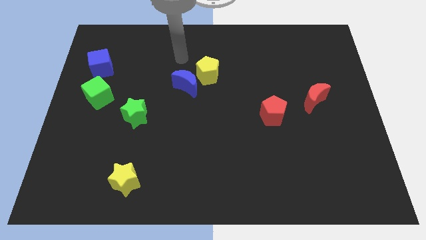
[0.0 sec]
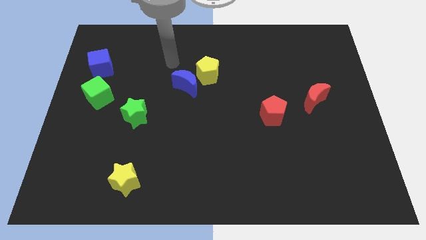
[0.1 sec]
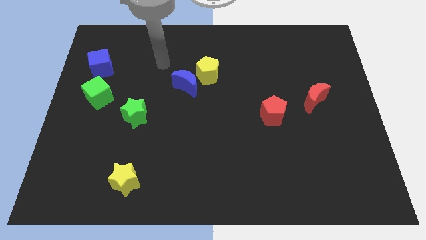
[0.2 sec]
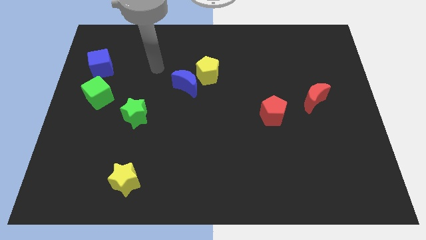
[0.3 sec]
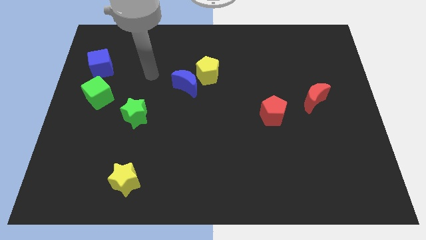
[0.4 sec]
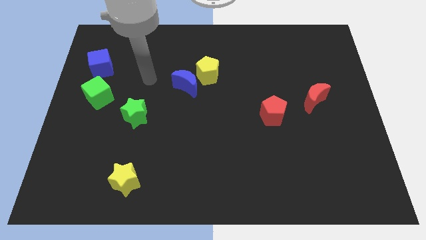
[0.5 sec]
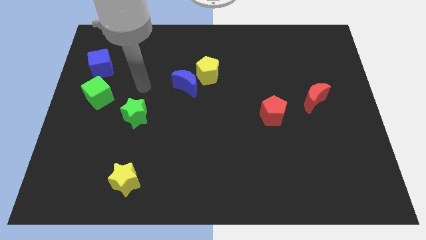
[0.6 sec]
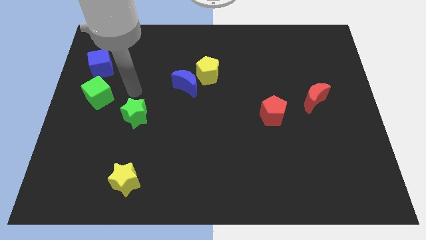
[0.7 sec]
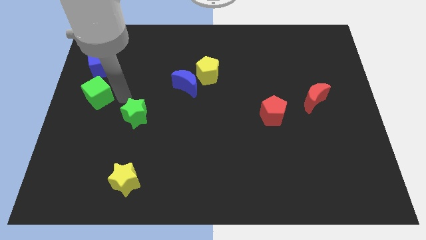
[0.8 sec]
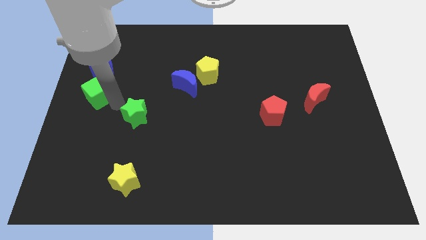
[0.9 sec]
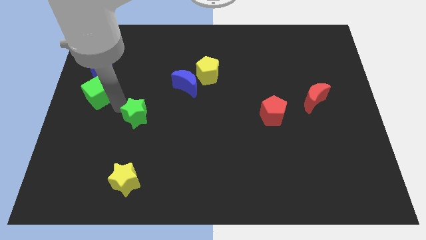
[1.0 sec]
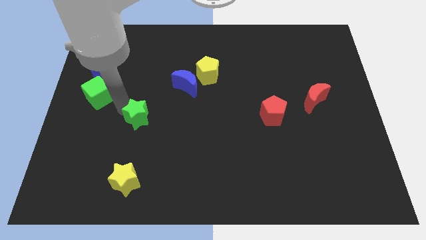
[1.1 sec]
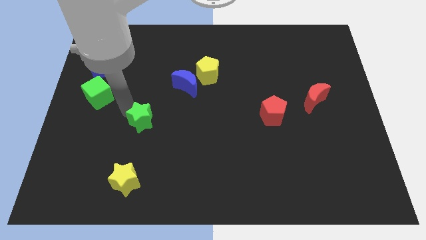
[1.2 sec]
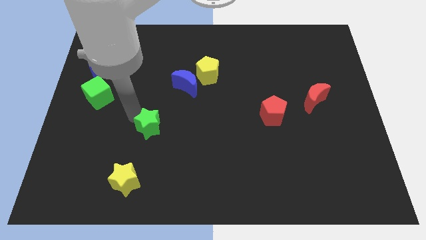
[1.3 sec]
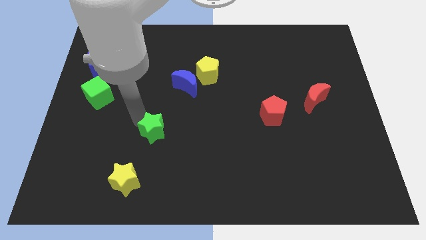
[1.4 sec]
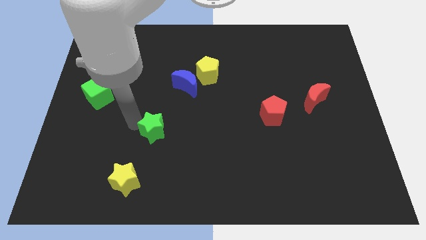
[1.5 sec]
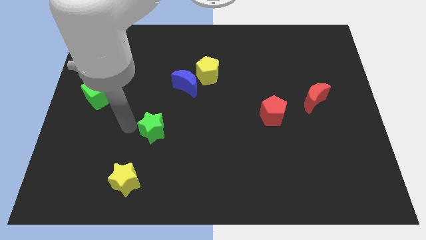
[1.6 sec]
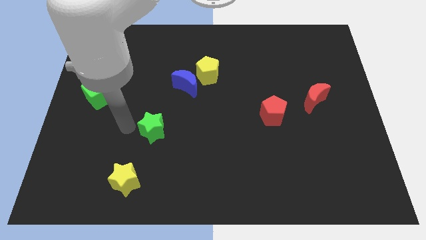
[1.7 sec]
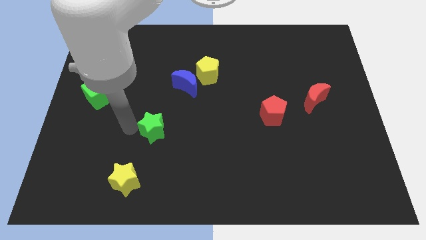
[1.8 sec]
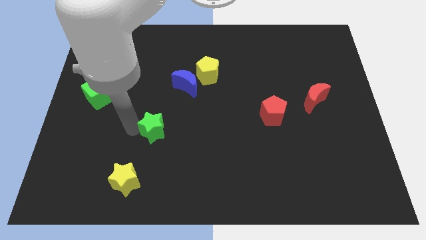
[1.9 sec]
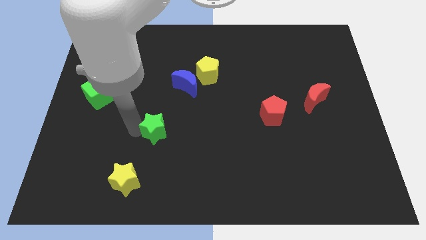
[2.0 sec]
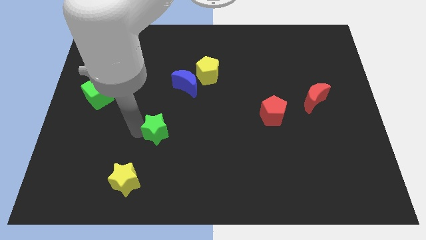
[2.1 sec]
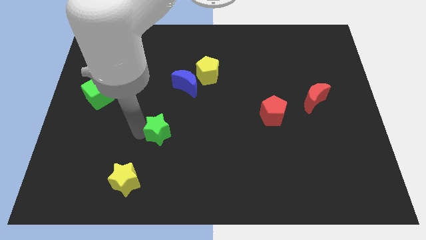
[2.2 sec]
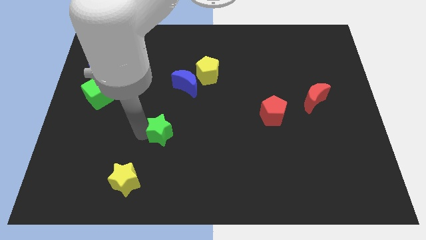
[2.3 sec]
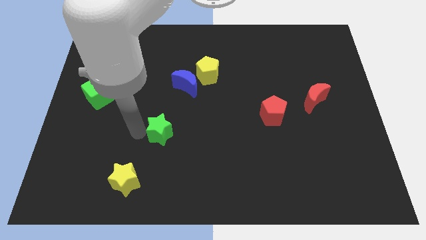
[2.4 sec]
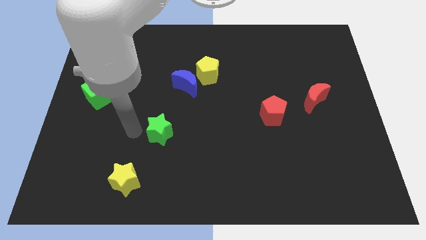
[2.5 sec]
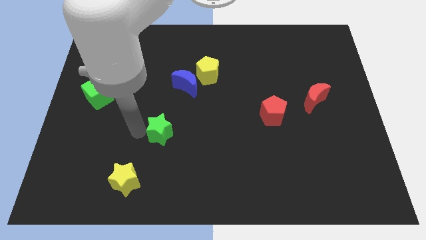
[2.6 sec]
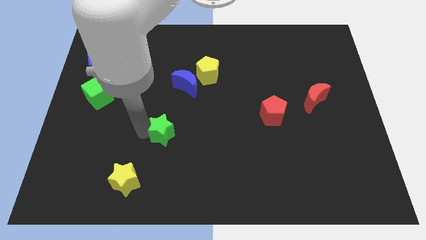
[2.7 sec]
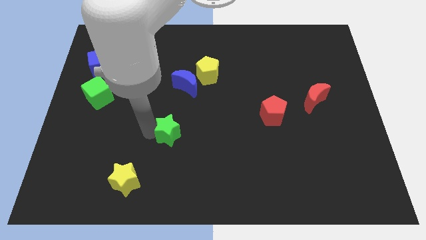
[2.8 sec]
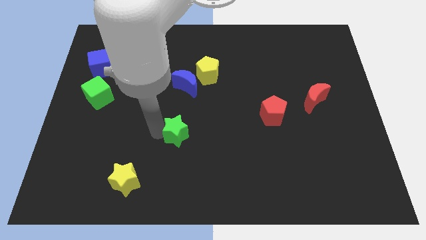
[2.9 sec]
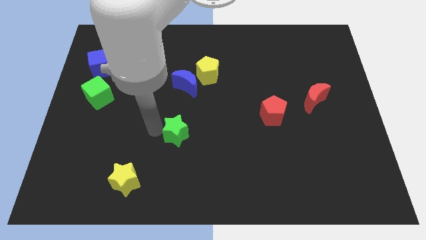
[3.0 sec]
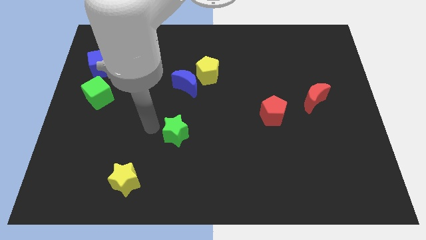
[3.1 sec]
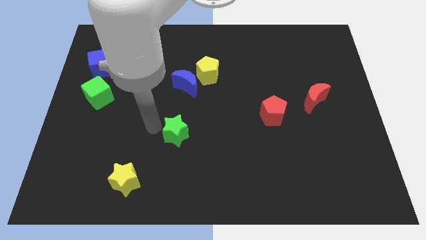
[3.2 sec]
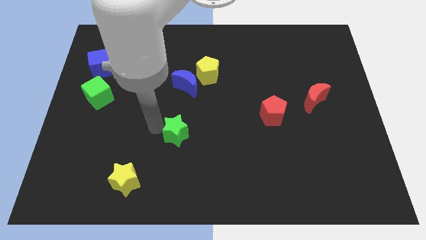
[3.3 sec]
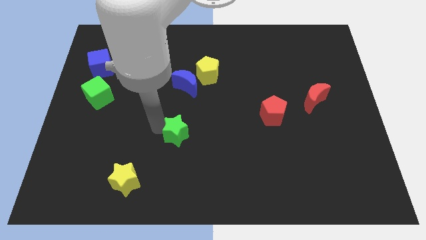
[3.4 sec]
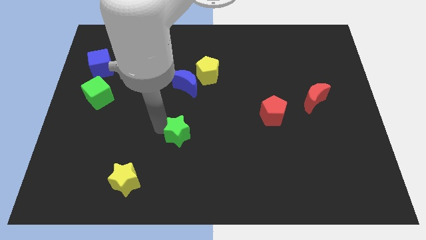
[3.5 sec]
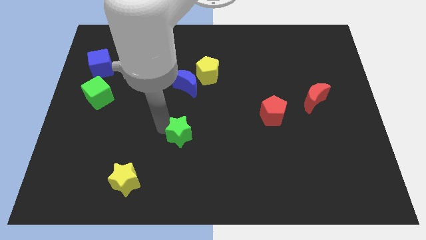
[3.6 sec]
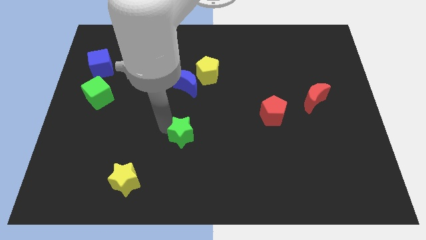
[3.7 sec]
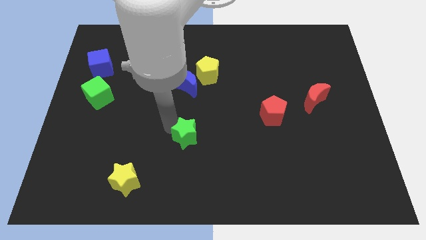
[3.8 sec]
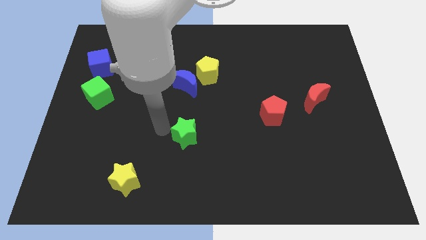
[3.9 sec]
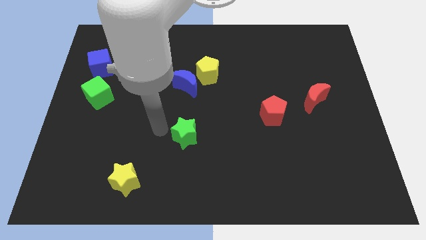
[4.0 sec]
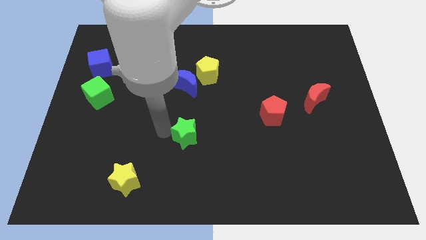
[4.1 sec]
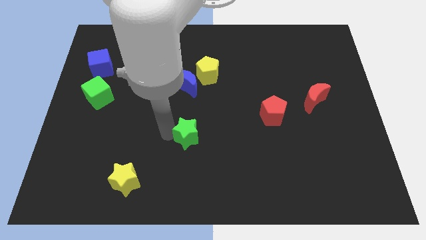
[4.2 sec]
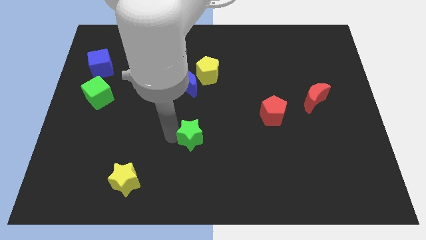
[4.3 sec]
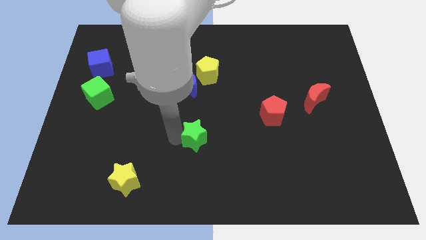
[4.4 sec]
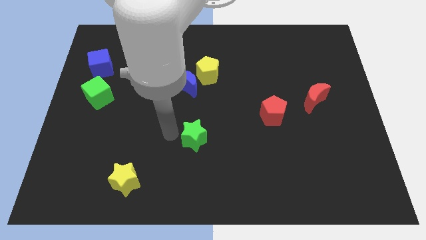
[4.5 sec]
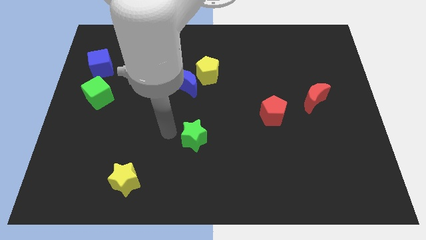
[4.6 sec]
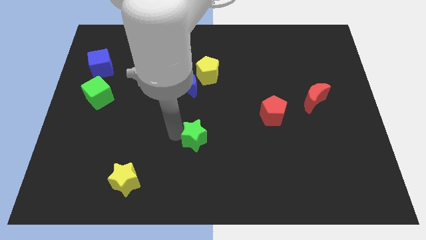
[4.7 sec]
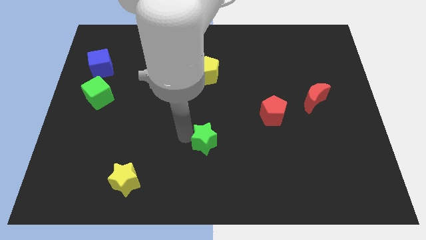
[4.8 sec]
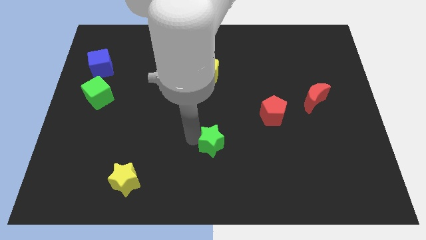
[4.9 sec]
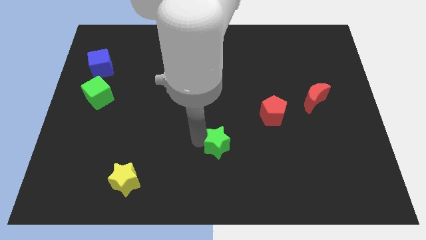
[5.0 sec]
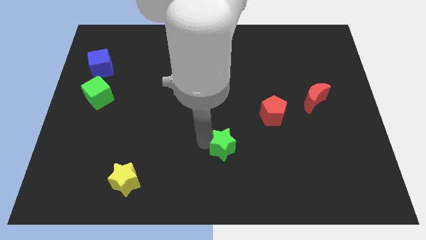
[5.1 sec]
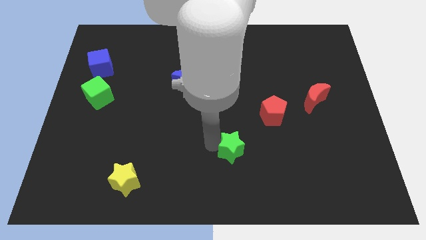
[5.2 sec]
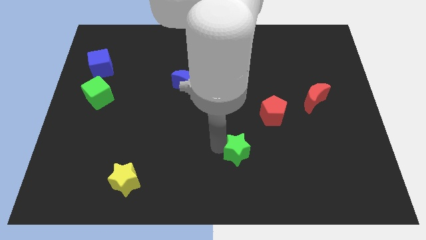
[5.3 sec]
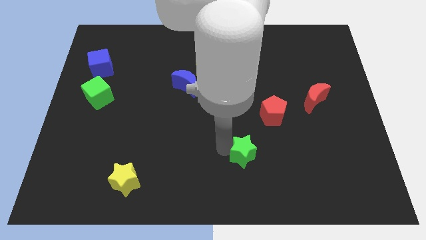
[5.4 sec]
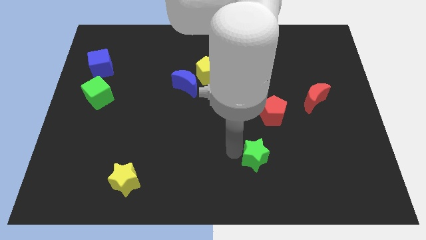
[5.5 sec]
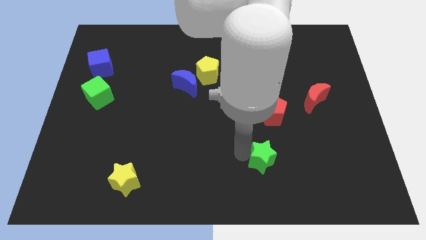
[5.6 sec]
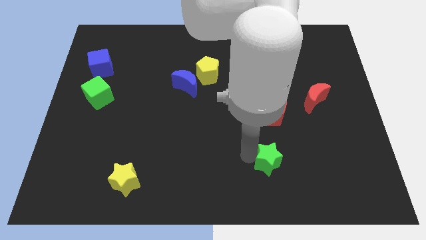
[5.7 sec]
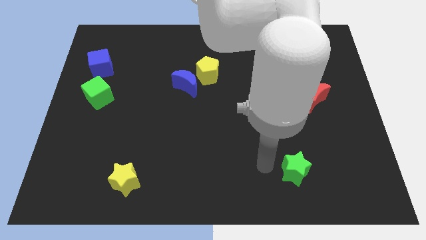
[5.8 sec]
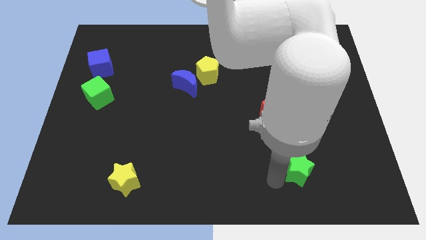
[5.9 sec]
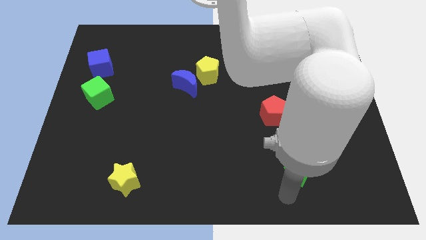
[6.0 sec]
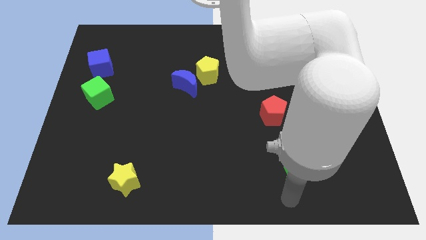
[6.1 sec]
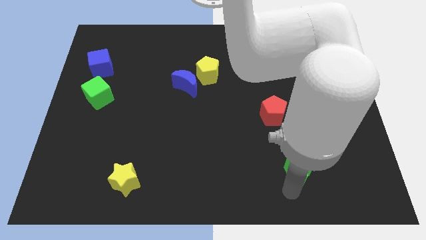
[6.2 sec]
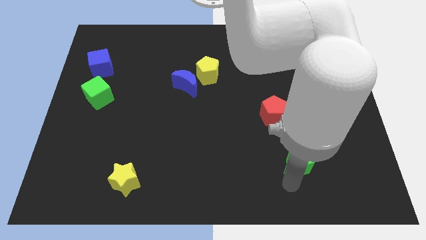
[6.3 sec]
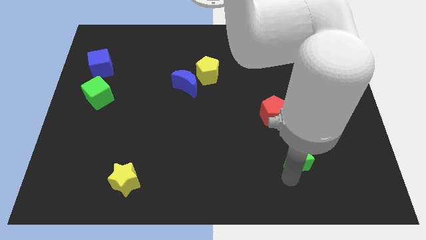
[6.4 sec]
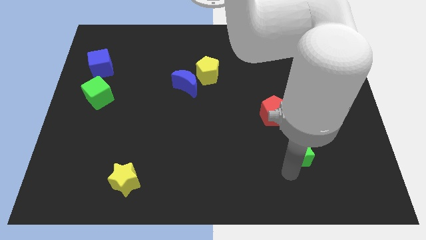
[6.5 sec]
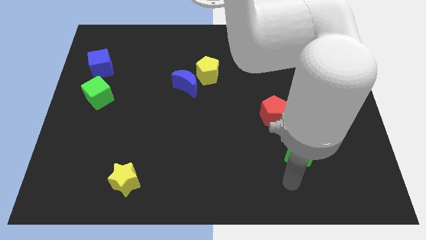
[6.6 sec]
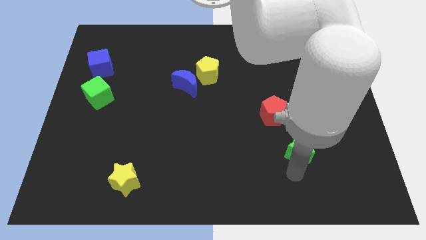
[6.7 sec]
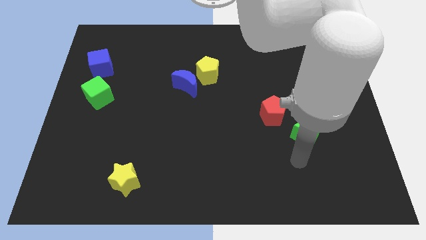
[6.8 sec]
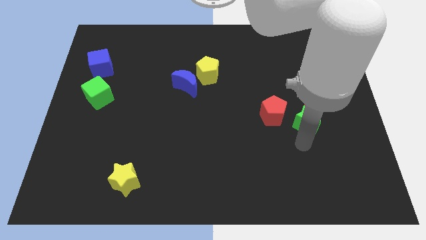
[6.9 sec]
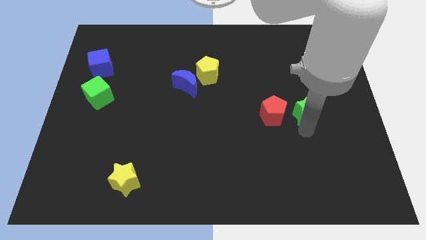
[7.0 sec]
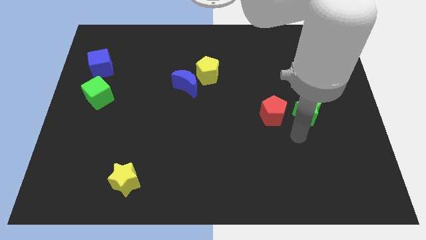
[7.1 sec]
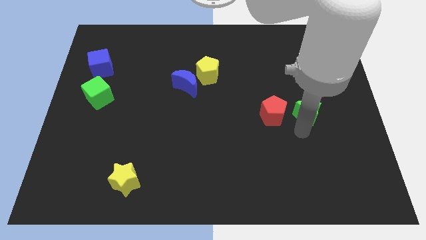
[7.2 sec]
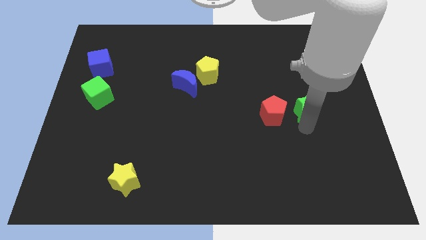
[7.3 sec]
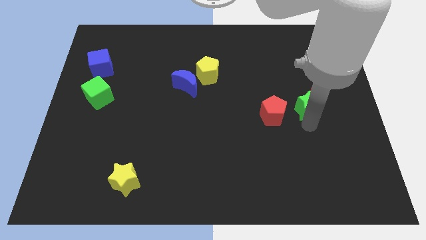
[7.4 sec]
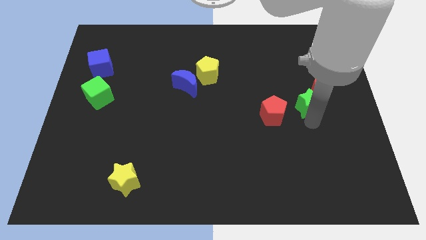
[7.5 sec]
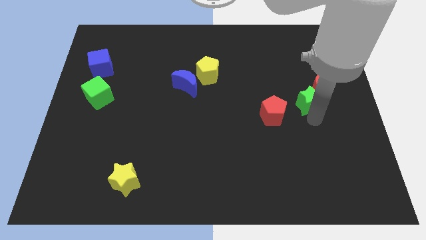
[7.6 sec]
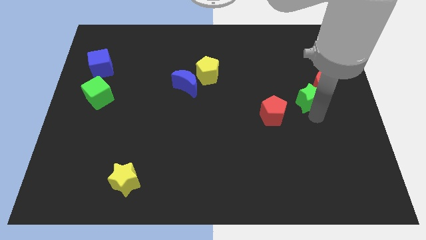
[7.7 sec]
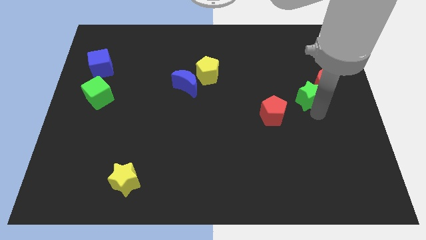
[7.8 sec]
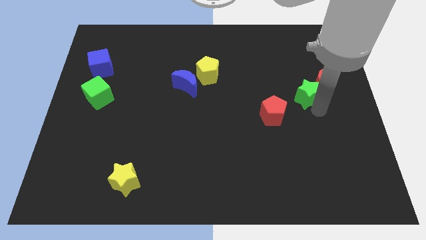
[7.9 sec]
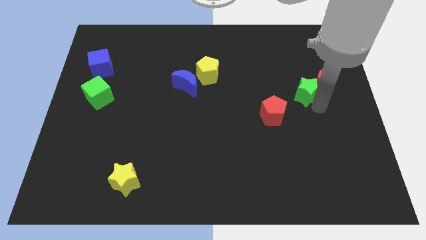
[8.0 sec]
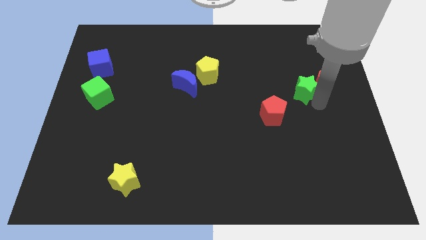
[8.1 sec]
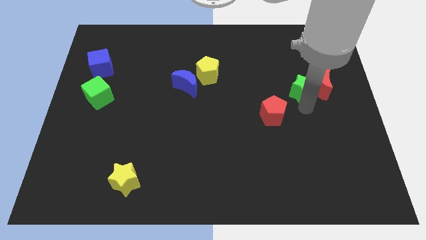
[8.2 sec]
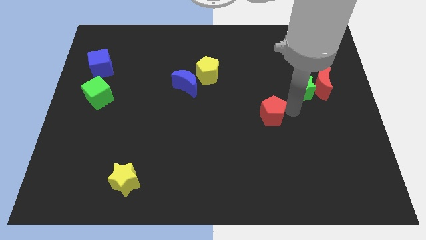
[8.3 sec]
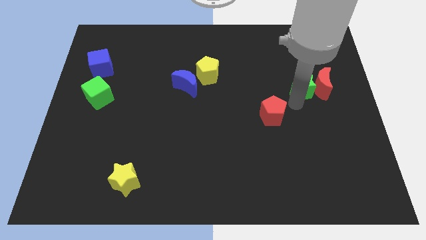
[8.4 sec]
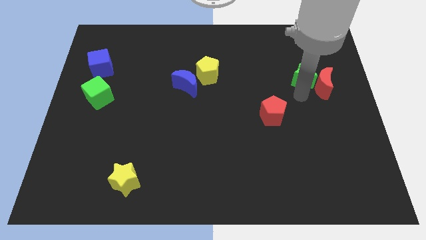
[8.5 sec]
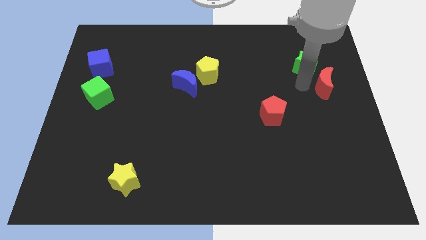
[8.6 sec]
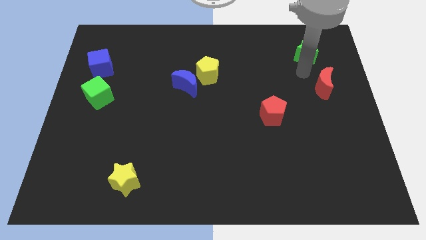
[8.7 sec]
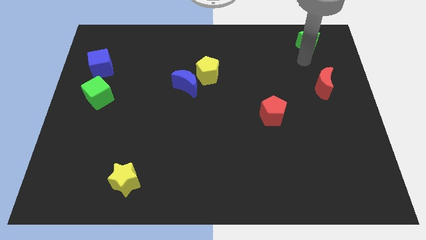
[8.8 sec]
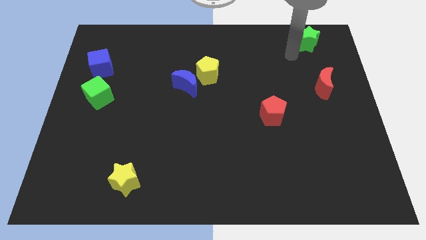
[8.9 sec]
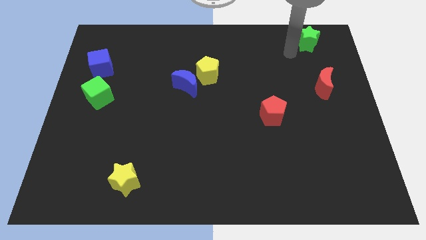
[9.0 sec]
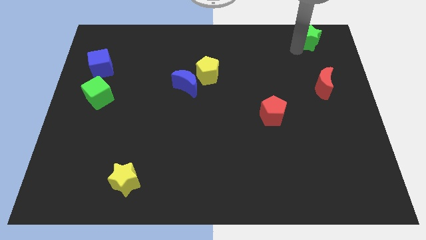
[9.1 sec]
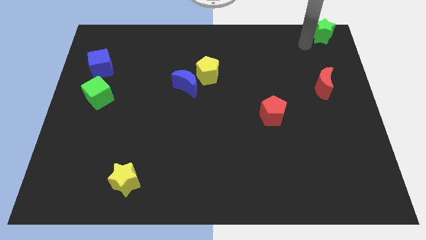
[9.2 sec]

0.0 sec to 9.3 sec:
push the green star to the top right corner
